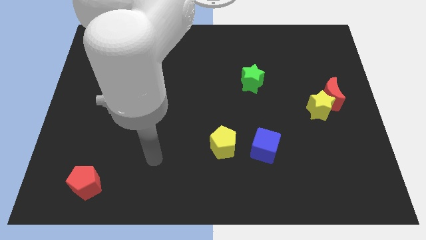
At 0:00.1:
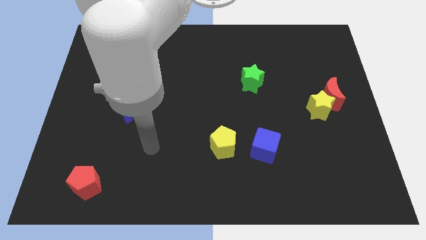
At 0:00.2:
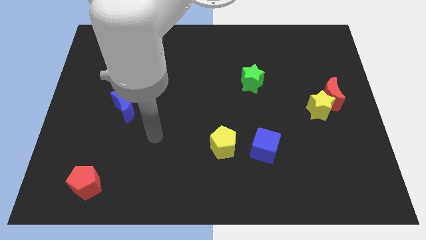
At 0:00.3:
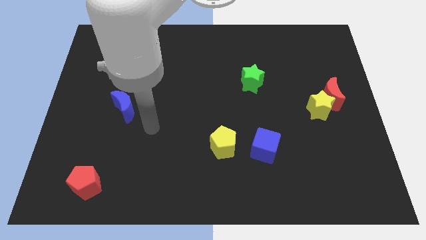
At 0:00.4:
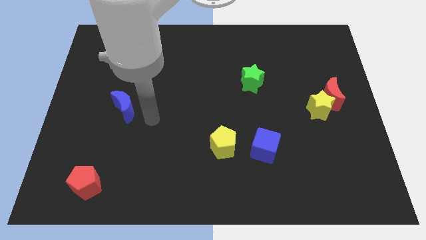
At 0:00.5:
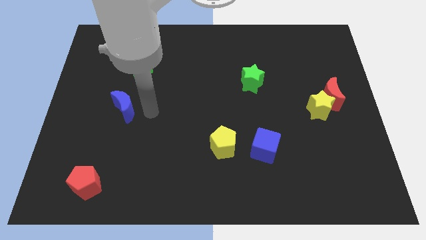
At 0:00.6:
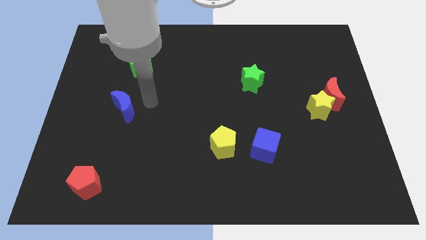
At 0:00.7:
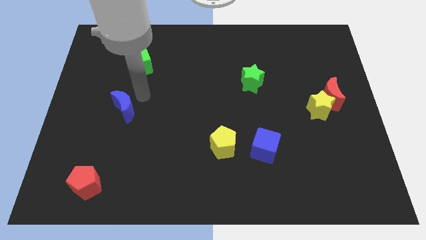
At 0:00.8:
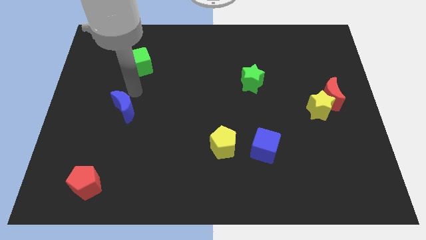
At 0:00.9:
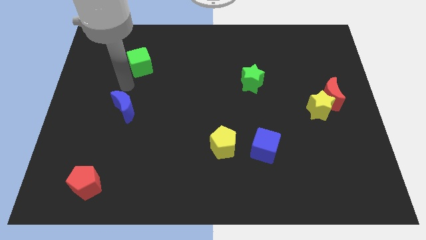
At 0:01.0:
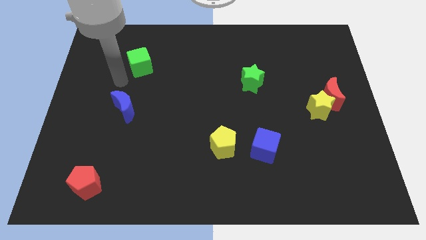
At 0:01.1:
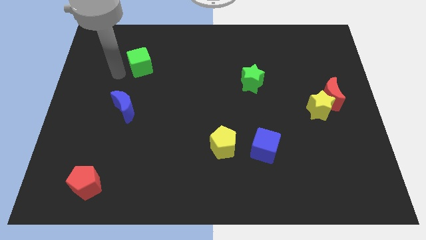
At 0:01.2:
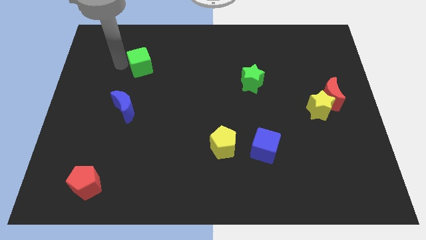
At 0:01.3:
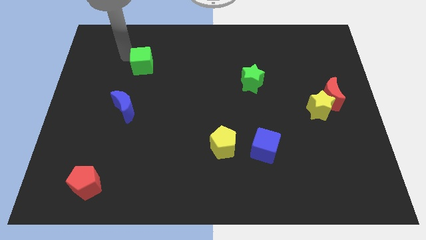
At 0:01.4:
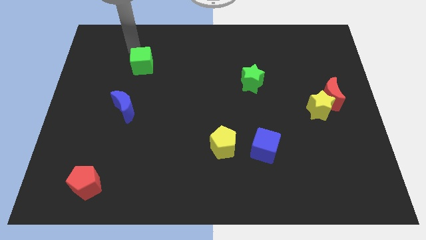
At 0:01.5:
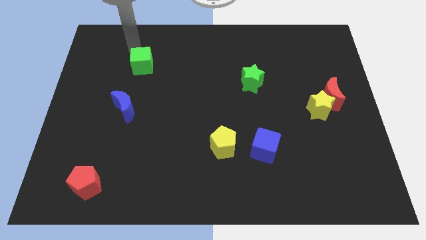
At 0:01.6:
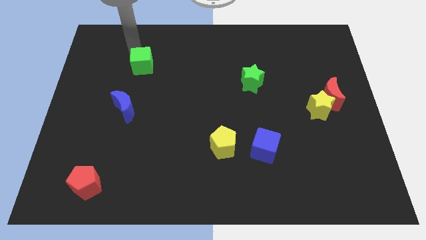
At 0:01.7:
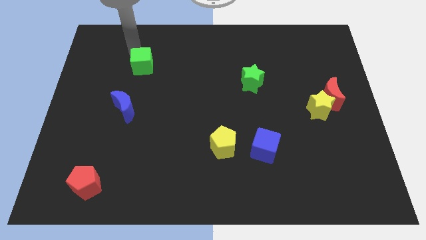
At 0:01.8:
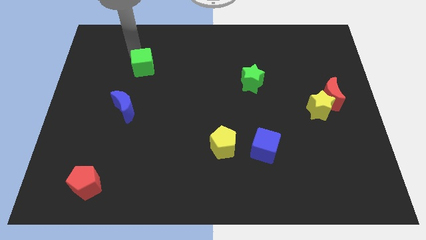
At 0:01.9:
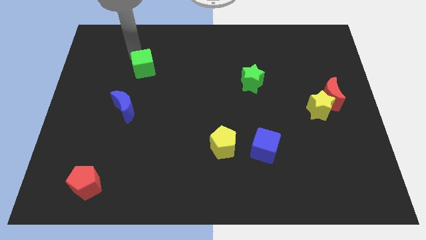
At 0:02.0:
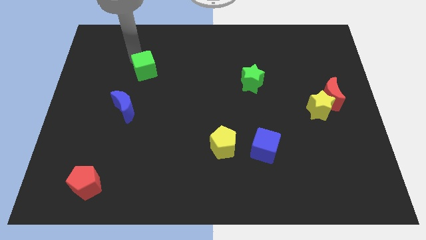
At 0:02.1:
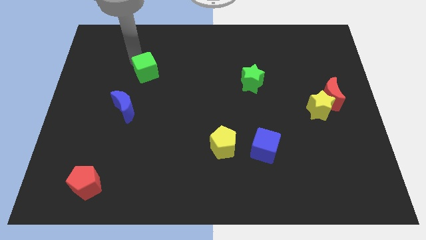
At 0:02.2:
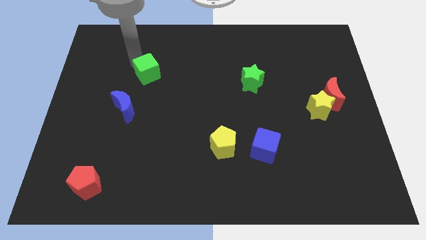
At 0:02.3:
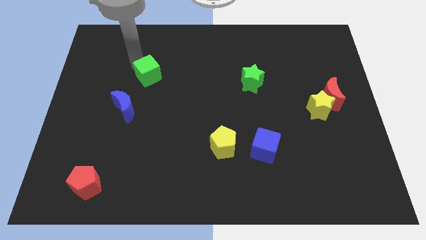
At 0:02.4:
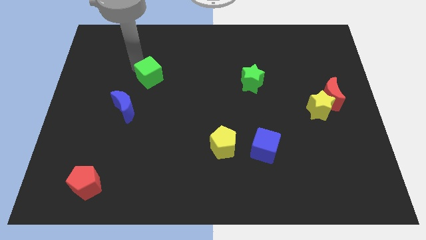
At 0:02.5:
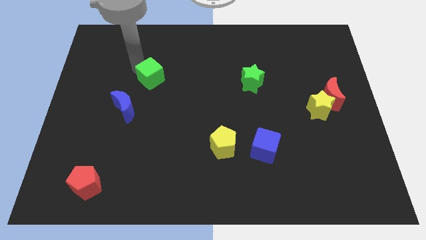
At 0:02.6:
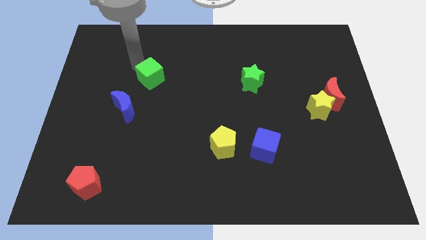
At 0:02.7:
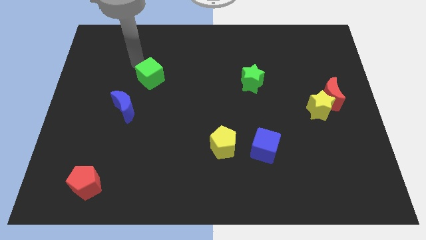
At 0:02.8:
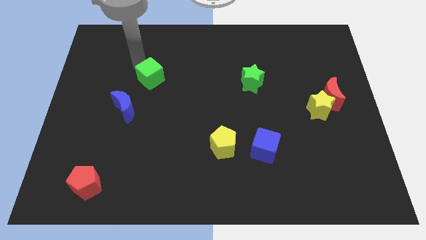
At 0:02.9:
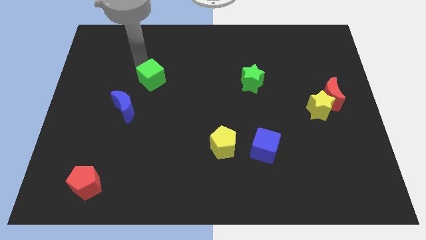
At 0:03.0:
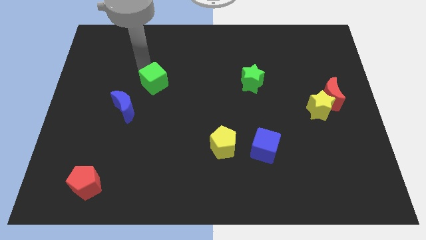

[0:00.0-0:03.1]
move the green cube a little down and to the right diagonally

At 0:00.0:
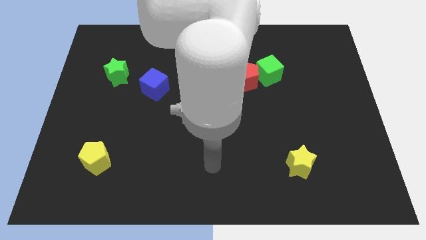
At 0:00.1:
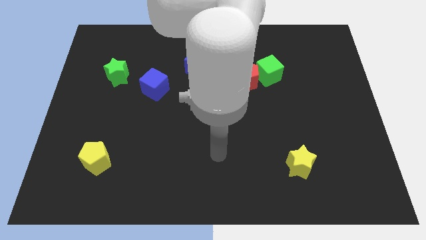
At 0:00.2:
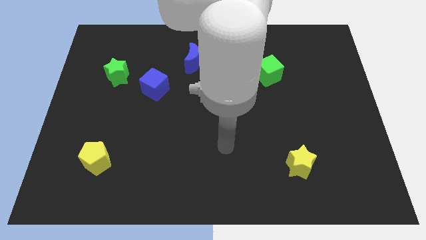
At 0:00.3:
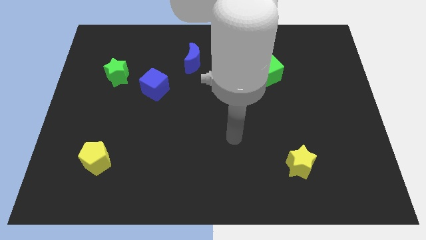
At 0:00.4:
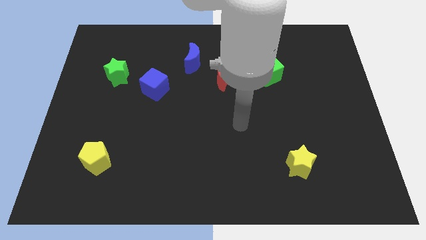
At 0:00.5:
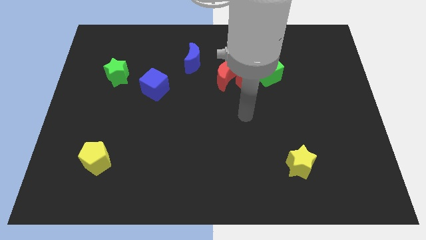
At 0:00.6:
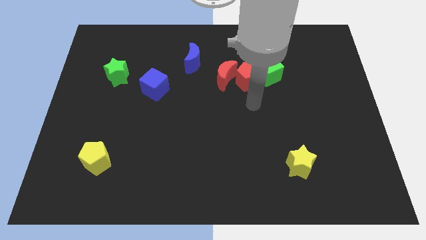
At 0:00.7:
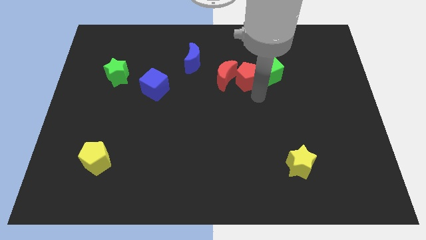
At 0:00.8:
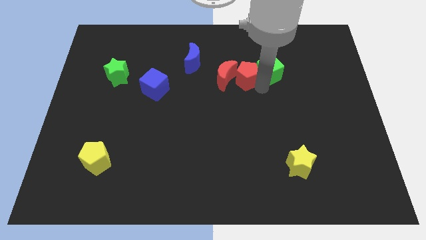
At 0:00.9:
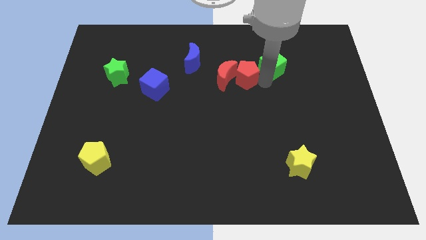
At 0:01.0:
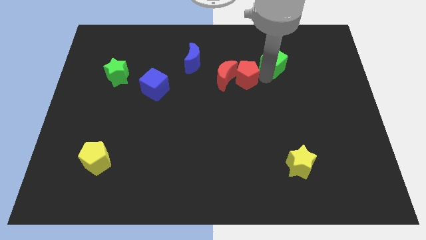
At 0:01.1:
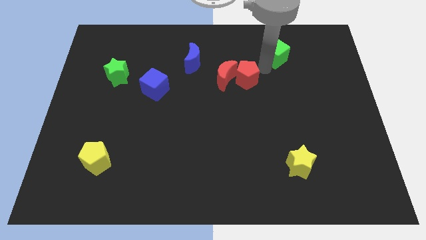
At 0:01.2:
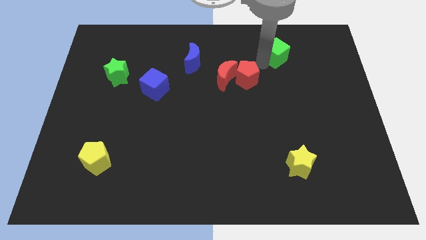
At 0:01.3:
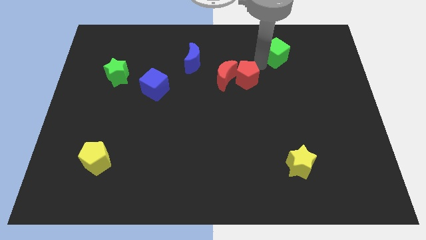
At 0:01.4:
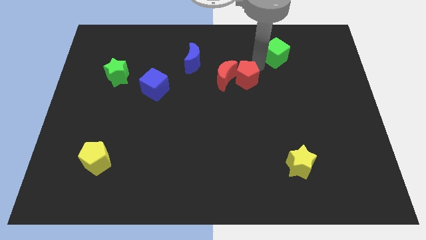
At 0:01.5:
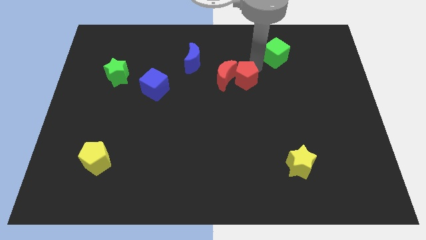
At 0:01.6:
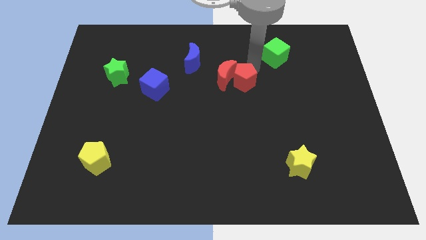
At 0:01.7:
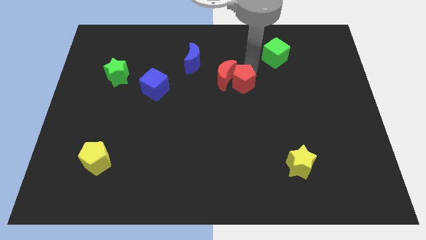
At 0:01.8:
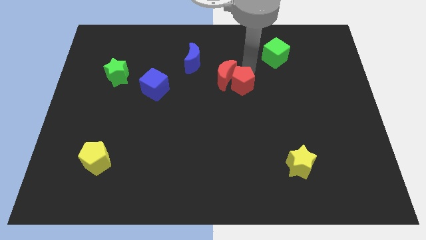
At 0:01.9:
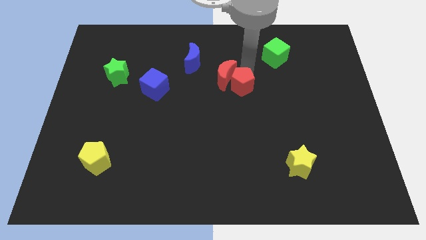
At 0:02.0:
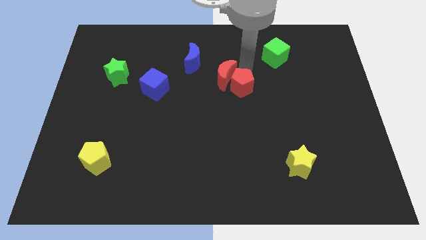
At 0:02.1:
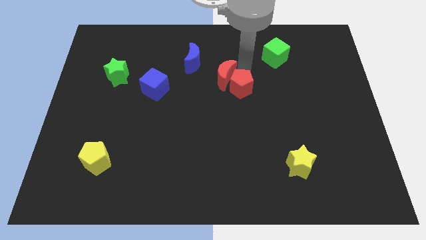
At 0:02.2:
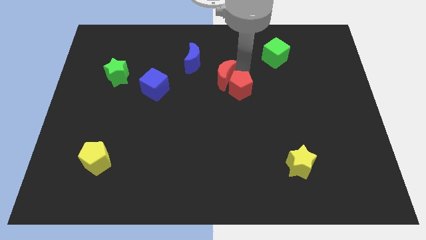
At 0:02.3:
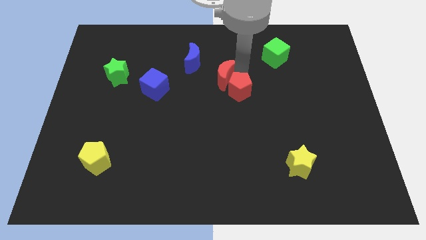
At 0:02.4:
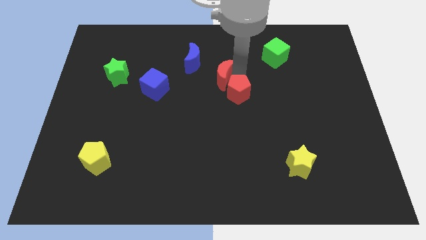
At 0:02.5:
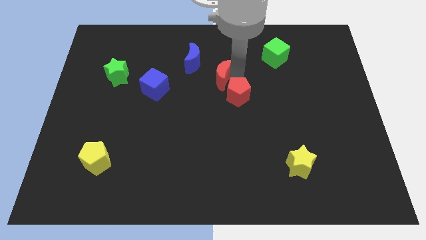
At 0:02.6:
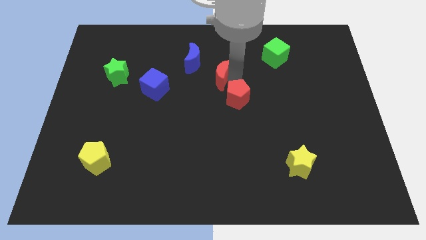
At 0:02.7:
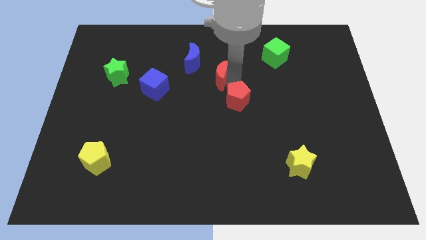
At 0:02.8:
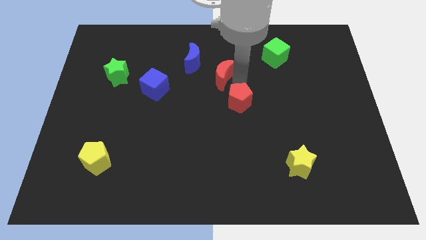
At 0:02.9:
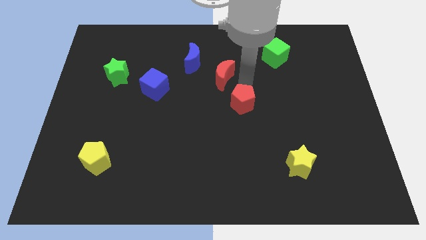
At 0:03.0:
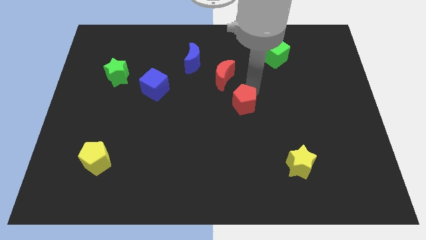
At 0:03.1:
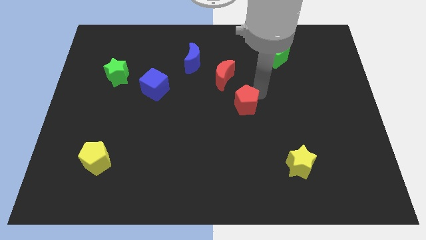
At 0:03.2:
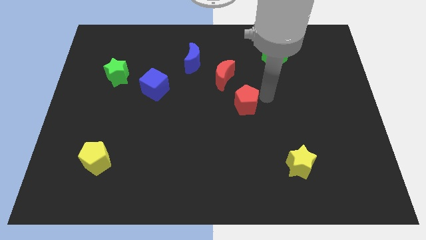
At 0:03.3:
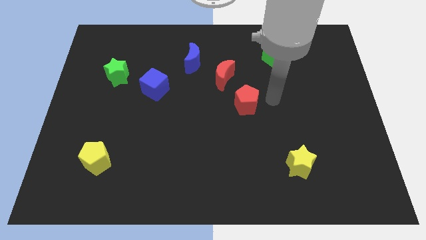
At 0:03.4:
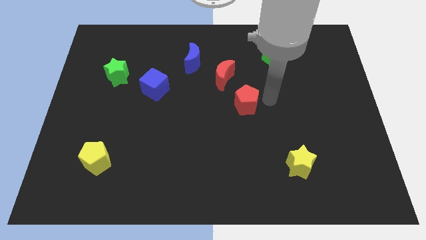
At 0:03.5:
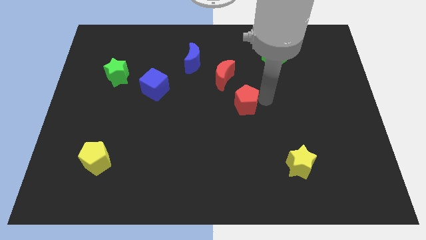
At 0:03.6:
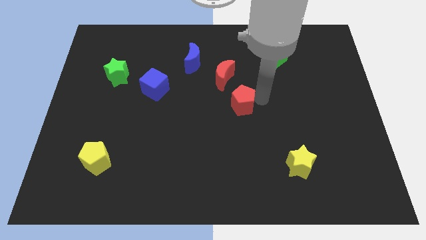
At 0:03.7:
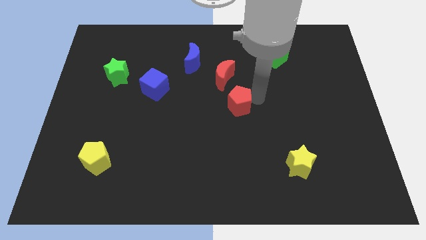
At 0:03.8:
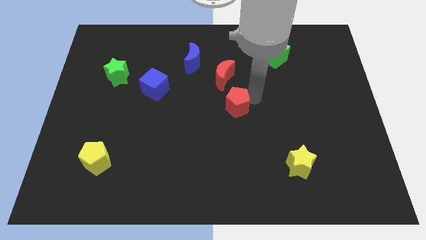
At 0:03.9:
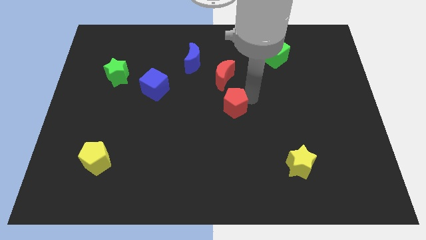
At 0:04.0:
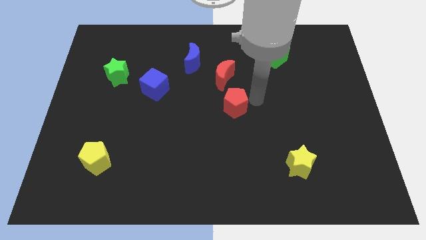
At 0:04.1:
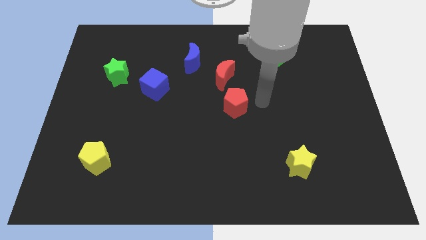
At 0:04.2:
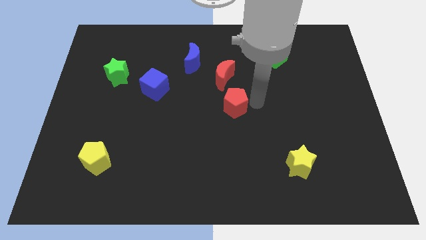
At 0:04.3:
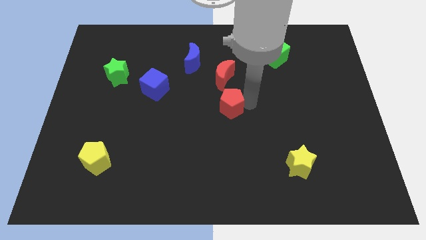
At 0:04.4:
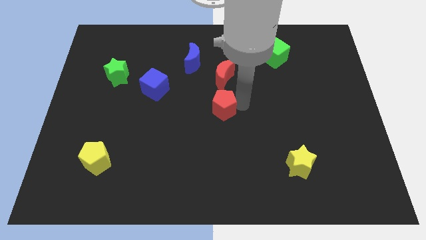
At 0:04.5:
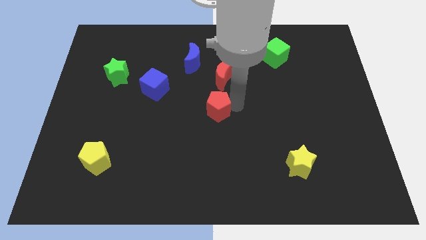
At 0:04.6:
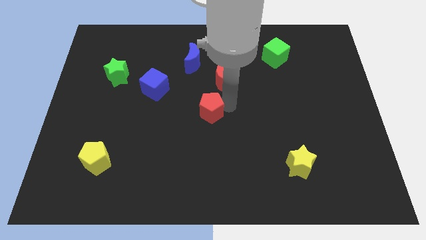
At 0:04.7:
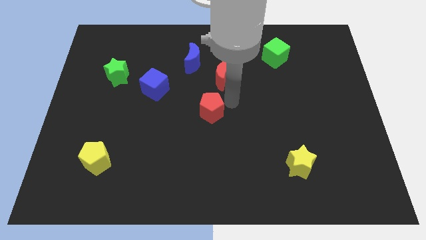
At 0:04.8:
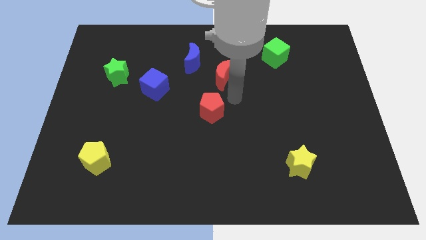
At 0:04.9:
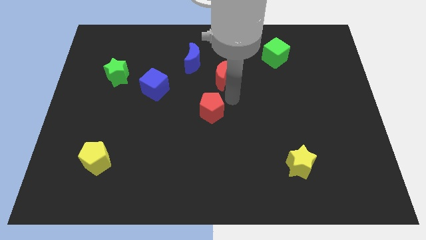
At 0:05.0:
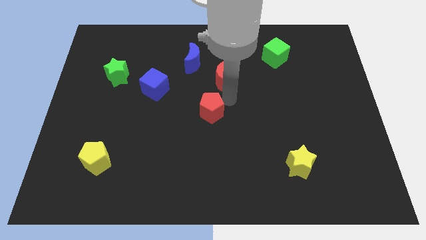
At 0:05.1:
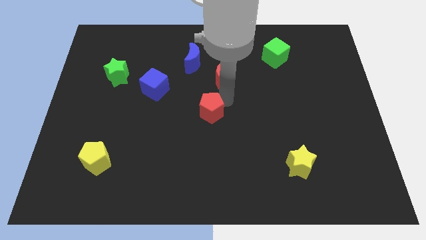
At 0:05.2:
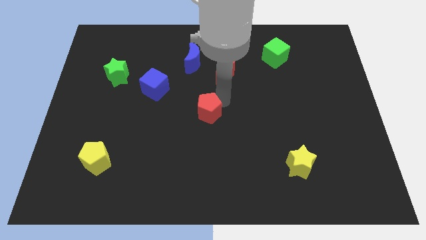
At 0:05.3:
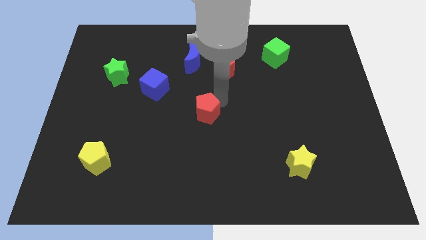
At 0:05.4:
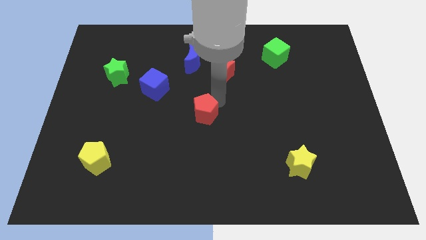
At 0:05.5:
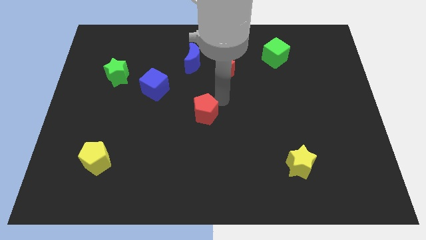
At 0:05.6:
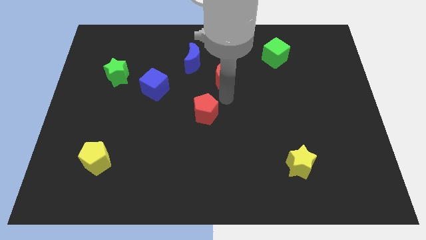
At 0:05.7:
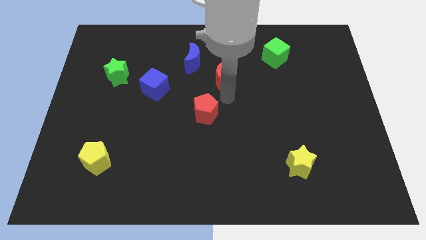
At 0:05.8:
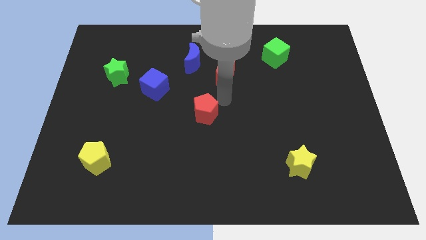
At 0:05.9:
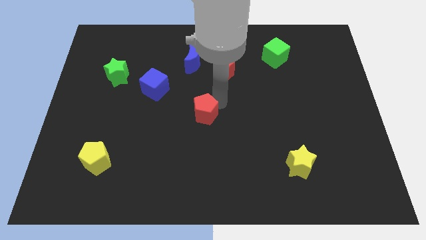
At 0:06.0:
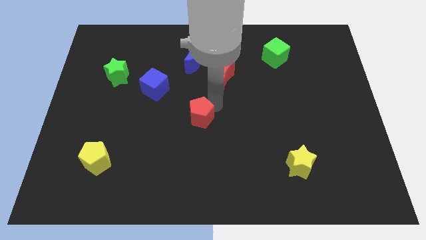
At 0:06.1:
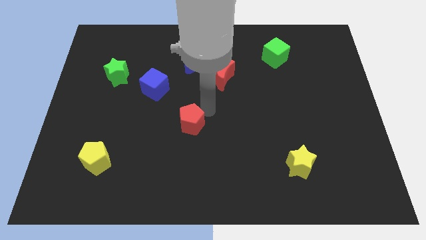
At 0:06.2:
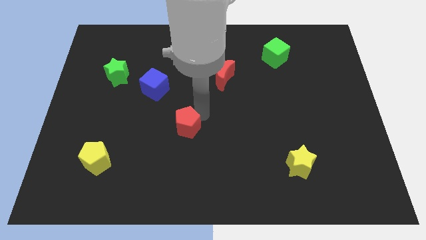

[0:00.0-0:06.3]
move the red pentagon down and then left
